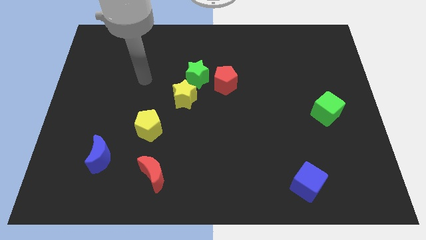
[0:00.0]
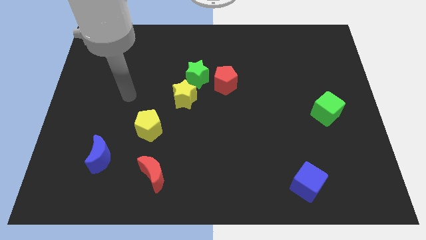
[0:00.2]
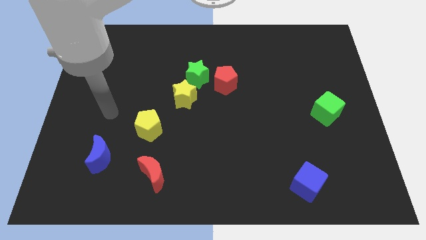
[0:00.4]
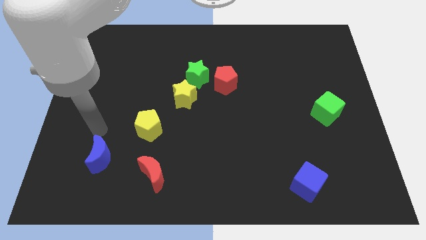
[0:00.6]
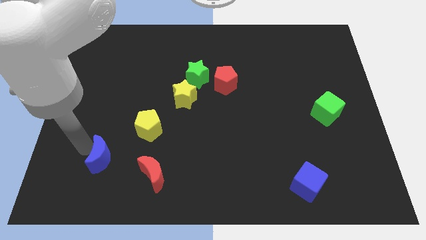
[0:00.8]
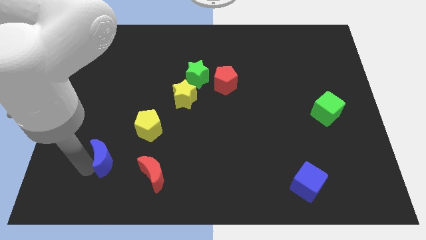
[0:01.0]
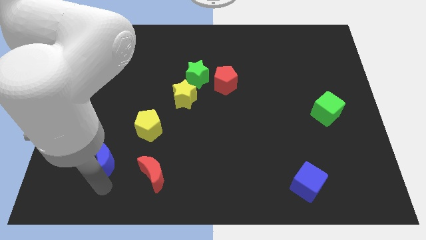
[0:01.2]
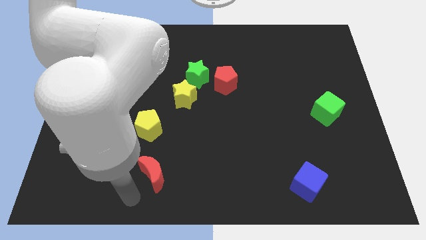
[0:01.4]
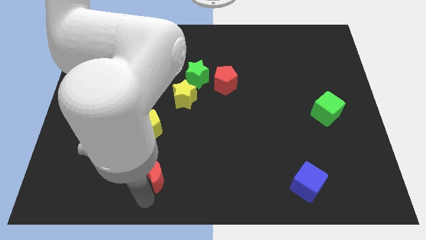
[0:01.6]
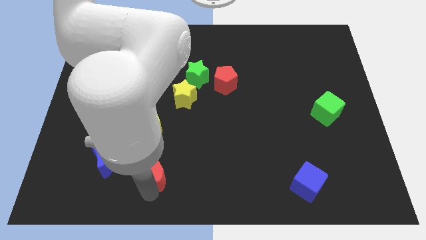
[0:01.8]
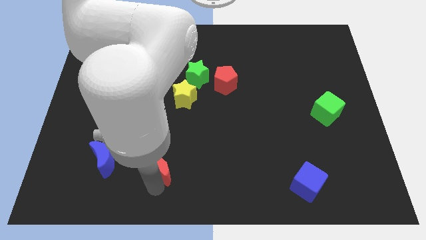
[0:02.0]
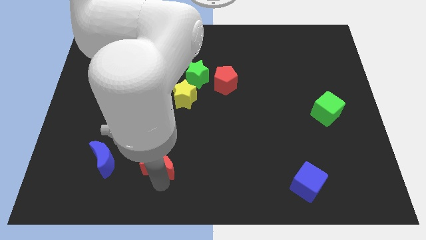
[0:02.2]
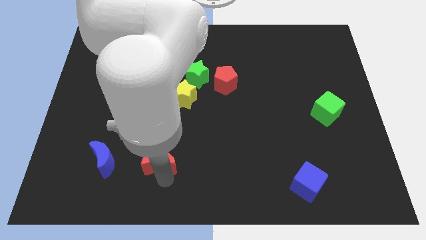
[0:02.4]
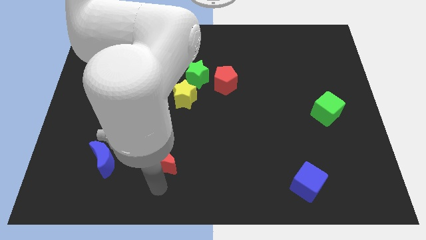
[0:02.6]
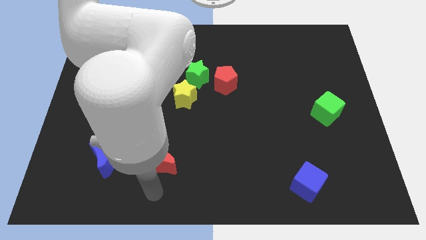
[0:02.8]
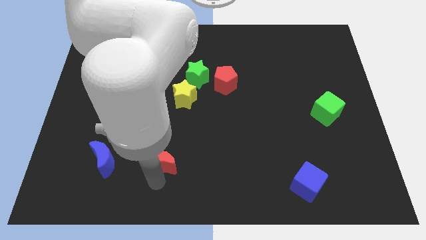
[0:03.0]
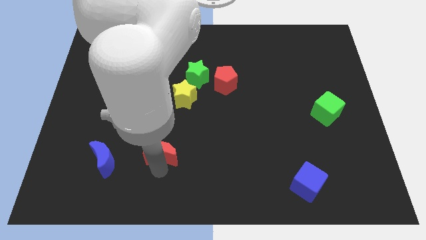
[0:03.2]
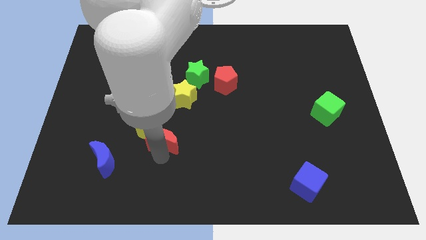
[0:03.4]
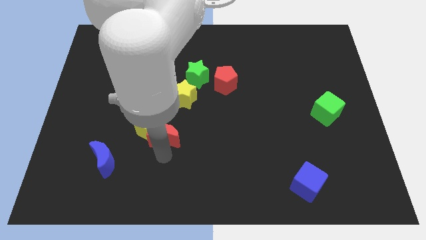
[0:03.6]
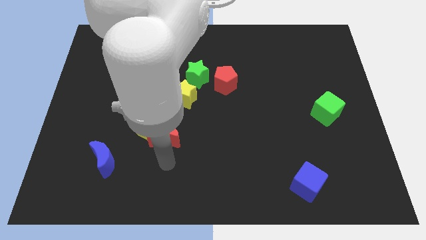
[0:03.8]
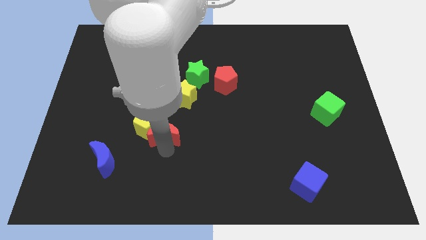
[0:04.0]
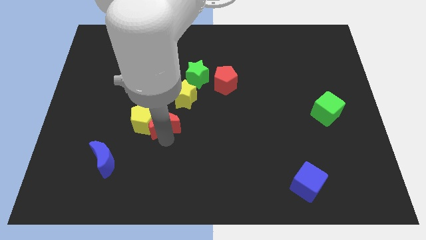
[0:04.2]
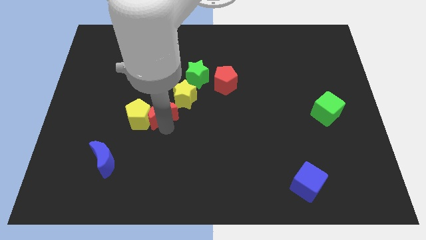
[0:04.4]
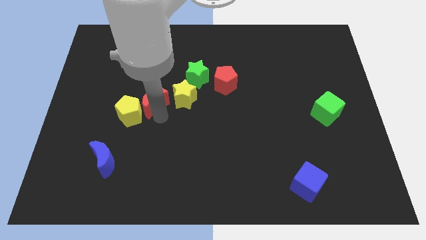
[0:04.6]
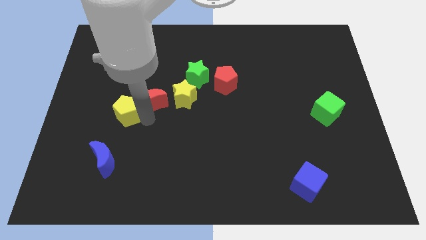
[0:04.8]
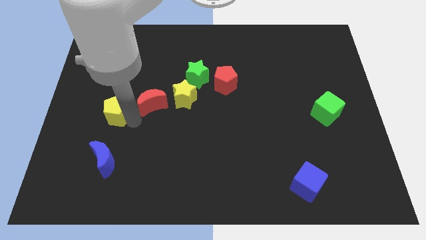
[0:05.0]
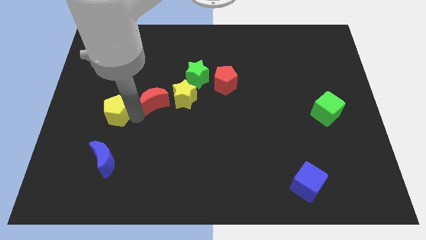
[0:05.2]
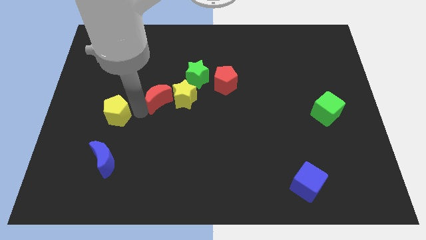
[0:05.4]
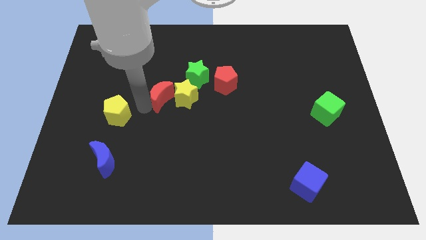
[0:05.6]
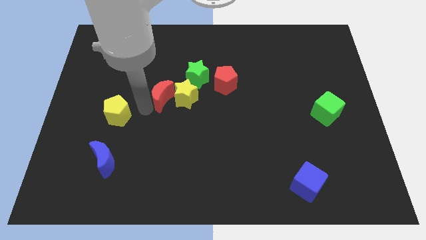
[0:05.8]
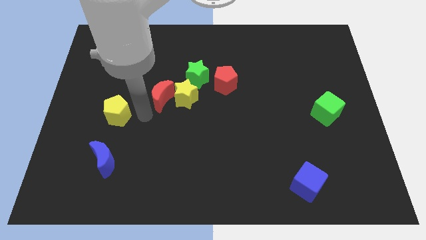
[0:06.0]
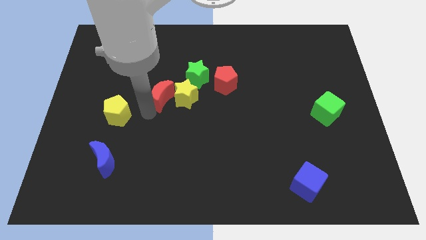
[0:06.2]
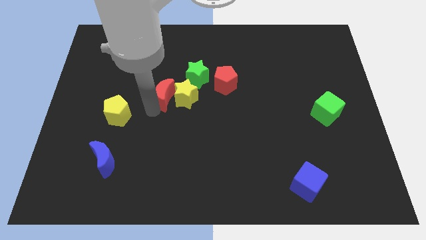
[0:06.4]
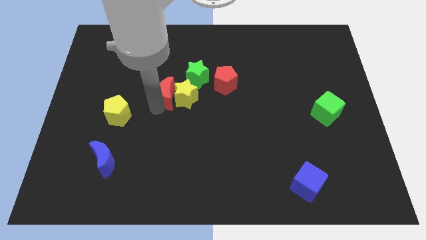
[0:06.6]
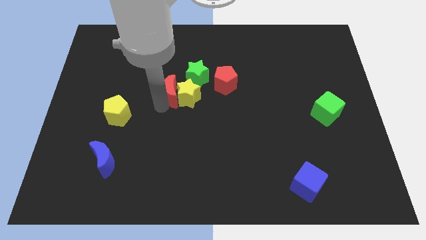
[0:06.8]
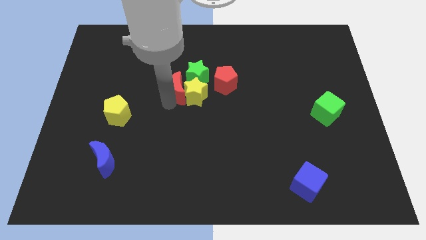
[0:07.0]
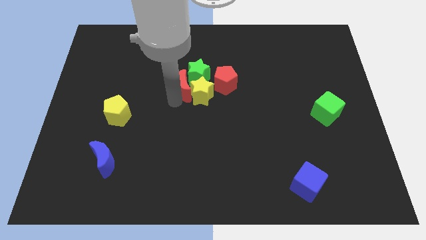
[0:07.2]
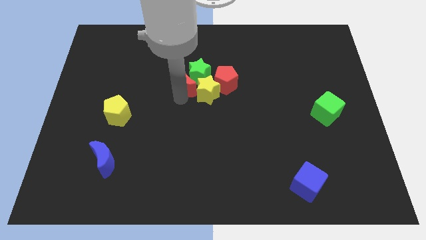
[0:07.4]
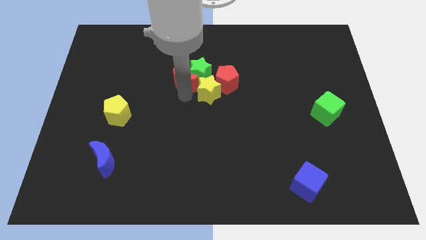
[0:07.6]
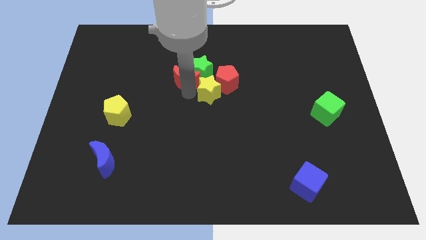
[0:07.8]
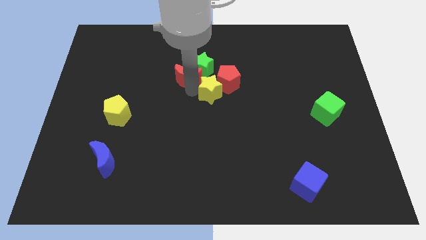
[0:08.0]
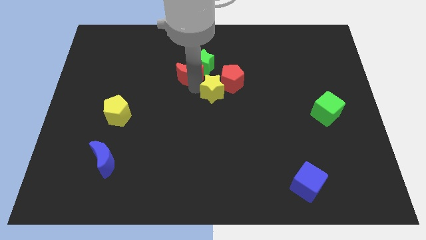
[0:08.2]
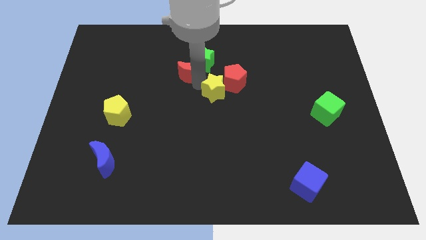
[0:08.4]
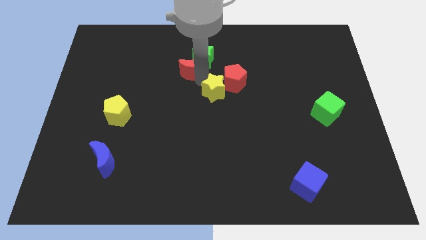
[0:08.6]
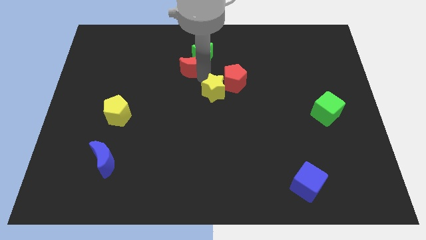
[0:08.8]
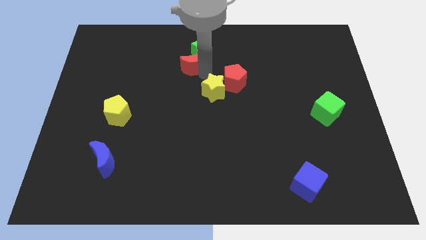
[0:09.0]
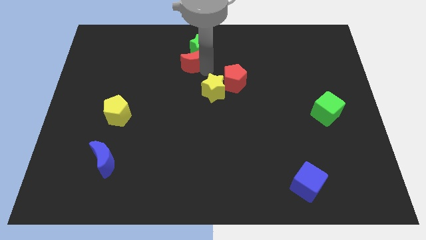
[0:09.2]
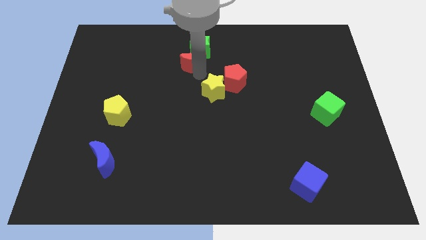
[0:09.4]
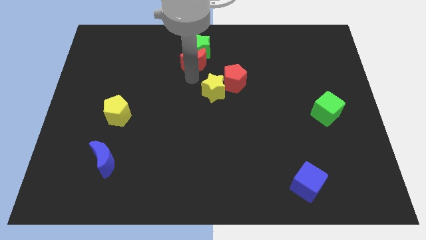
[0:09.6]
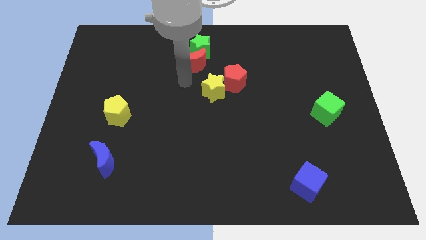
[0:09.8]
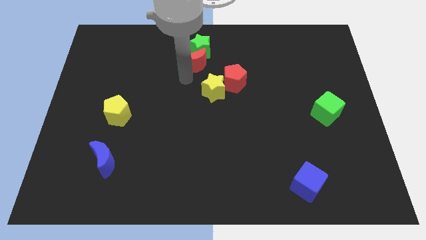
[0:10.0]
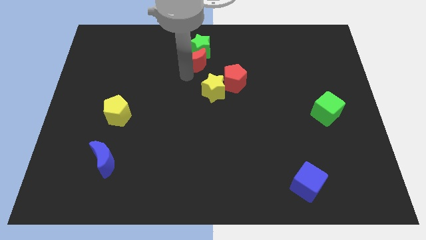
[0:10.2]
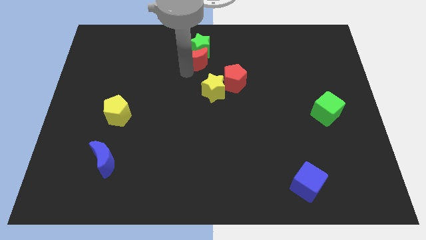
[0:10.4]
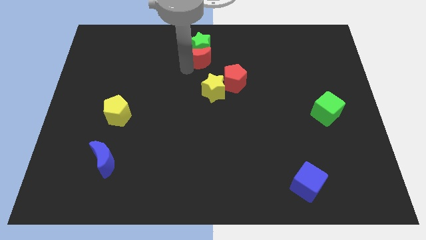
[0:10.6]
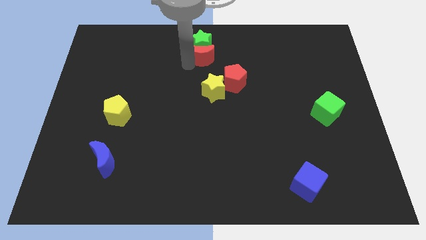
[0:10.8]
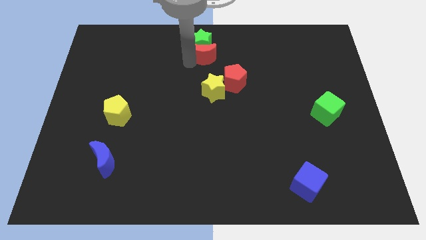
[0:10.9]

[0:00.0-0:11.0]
move the red moon to the towards your base

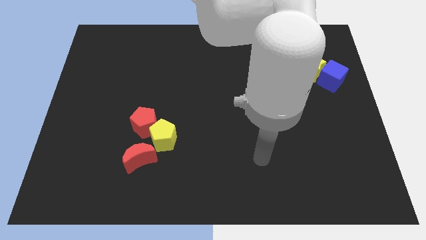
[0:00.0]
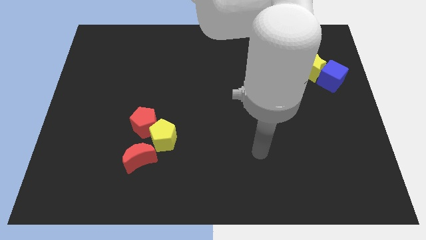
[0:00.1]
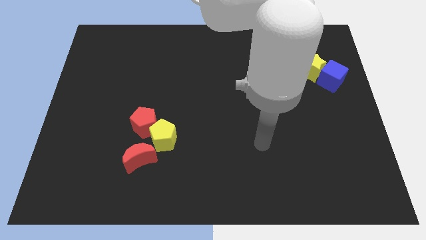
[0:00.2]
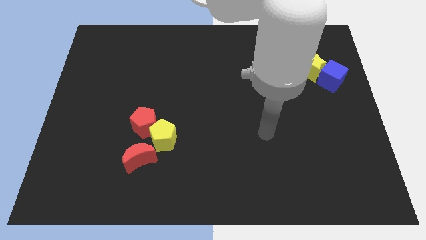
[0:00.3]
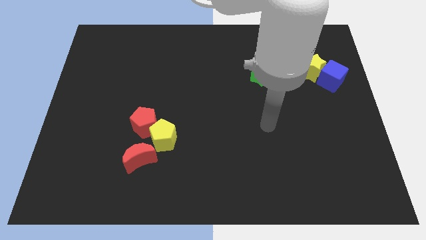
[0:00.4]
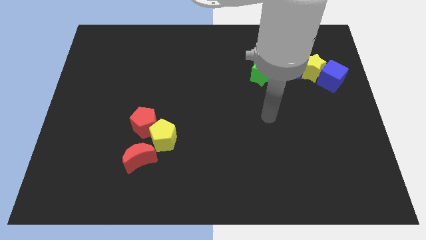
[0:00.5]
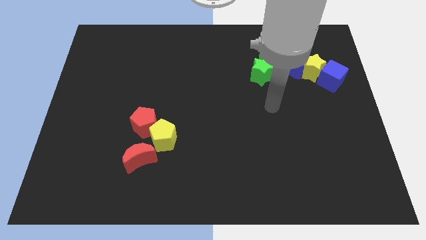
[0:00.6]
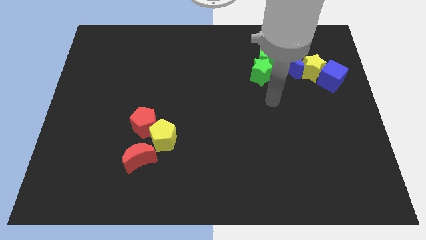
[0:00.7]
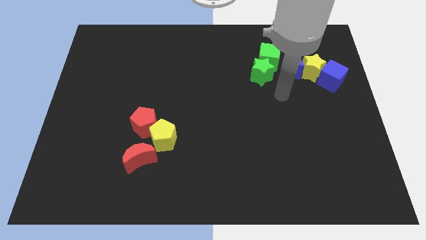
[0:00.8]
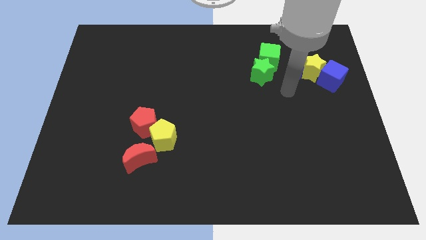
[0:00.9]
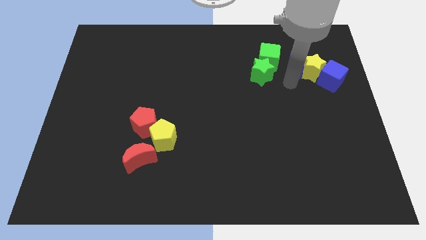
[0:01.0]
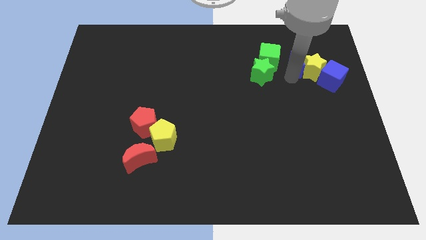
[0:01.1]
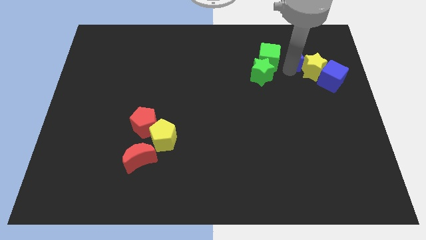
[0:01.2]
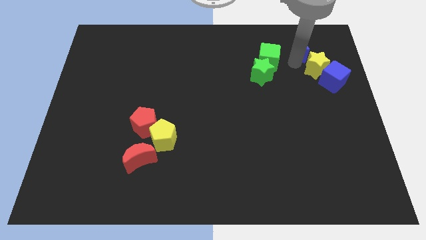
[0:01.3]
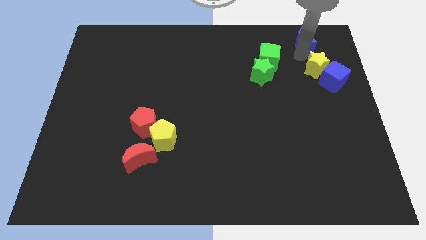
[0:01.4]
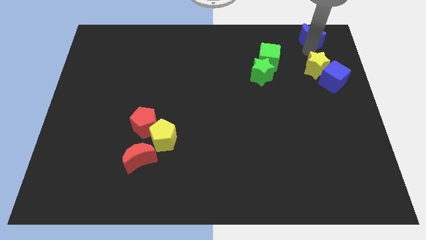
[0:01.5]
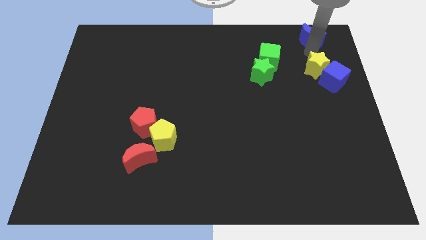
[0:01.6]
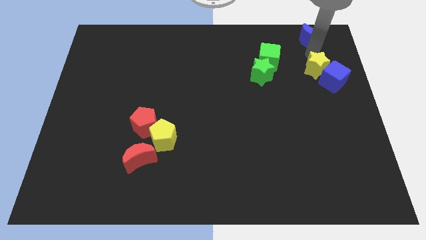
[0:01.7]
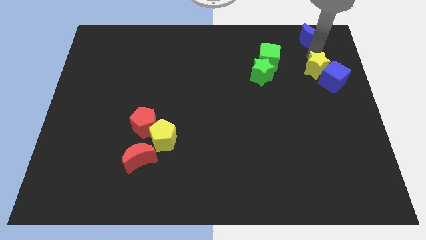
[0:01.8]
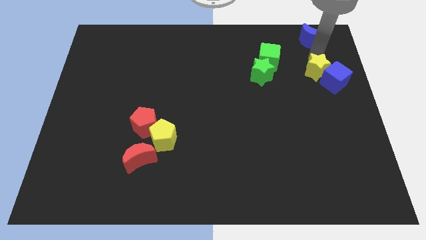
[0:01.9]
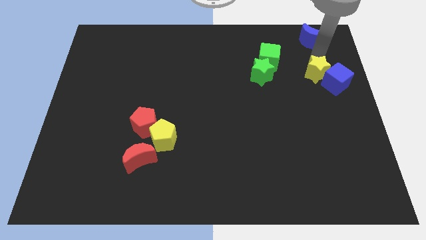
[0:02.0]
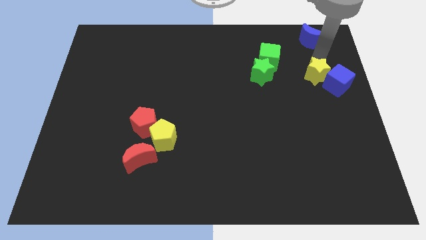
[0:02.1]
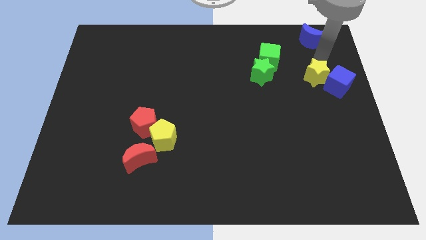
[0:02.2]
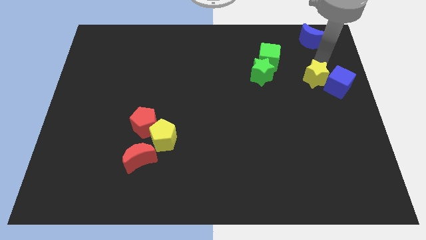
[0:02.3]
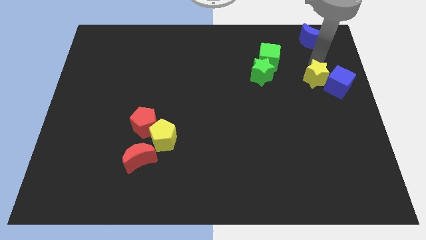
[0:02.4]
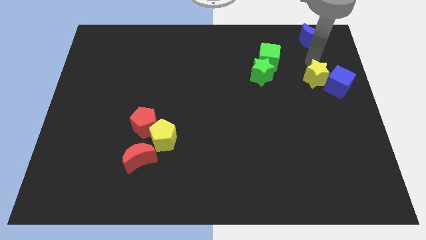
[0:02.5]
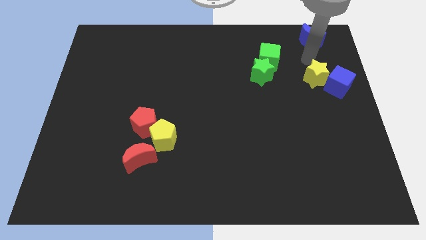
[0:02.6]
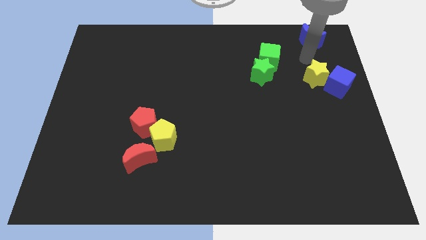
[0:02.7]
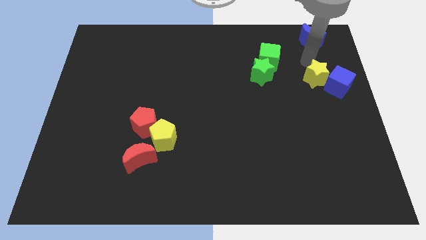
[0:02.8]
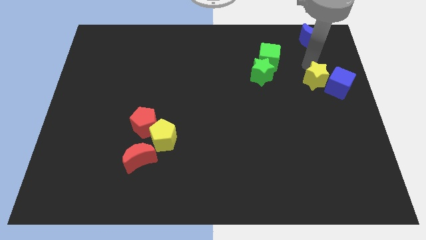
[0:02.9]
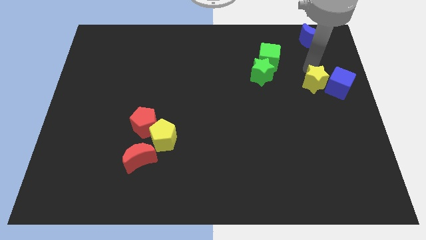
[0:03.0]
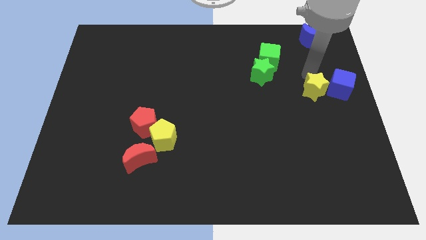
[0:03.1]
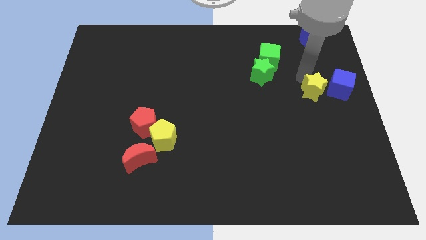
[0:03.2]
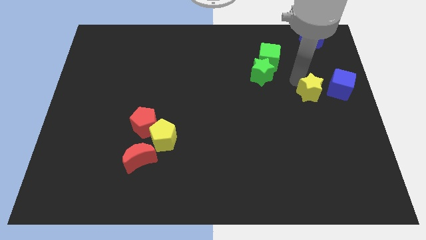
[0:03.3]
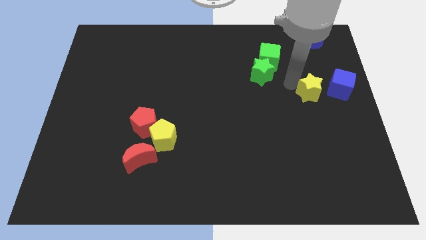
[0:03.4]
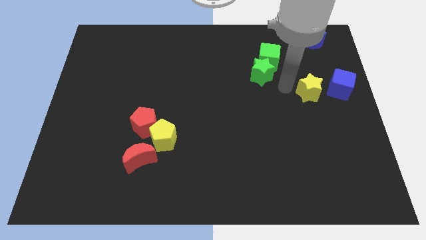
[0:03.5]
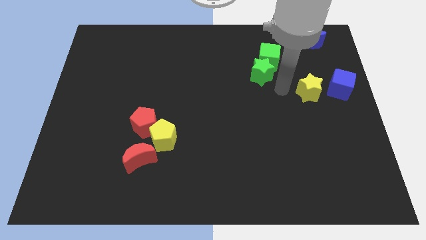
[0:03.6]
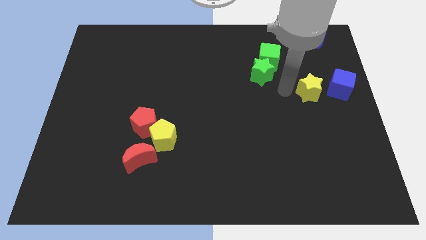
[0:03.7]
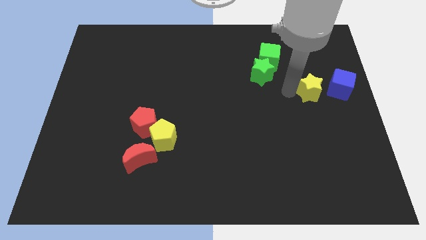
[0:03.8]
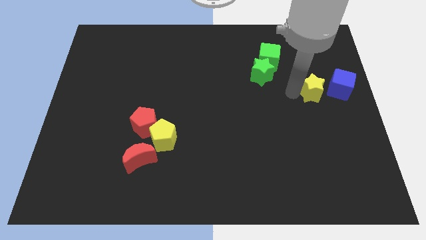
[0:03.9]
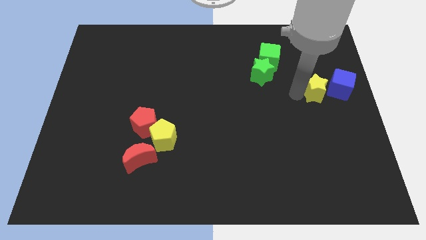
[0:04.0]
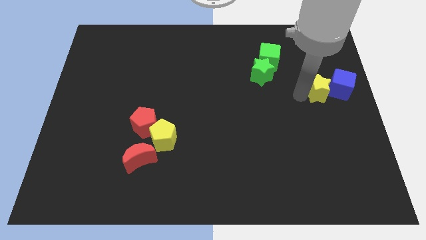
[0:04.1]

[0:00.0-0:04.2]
push the yellow star to the right side
